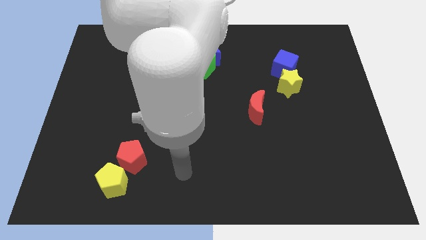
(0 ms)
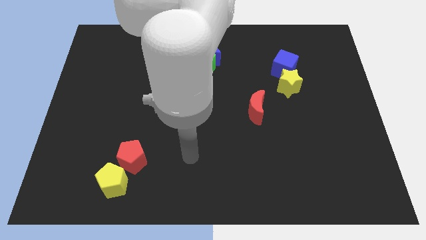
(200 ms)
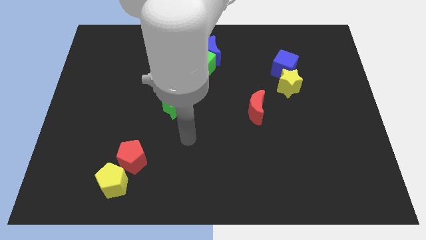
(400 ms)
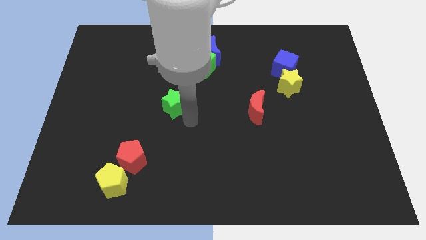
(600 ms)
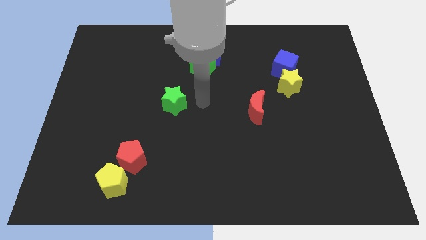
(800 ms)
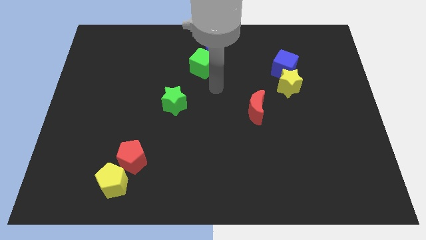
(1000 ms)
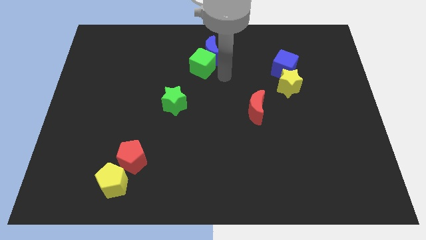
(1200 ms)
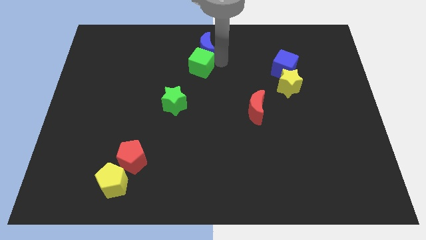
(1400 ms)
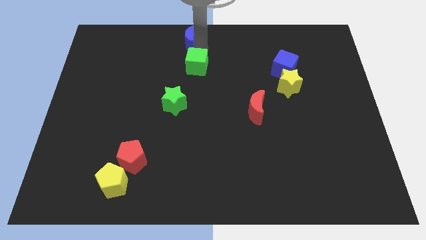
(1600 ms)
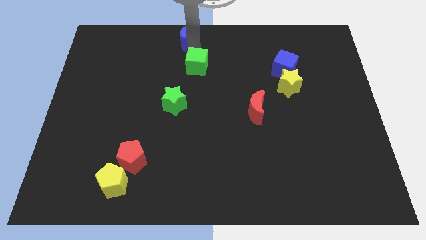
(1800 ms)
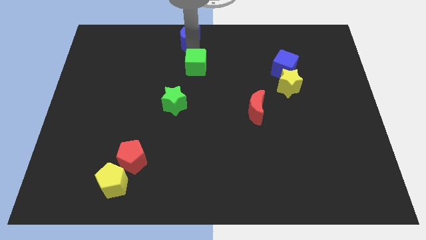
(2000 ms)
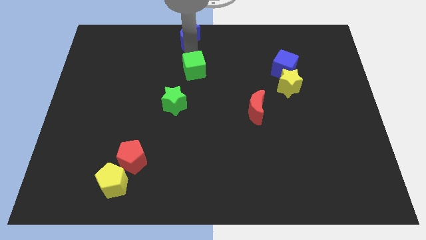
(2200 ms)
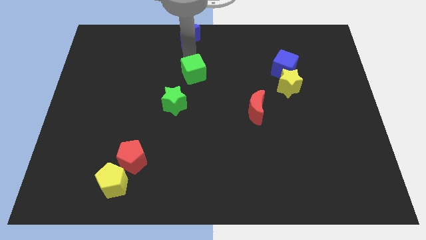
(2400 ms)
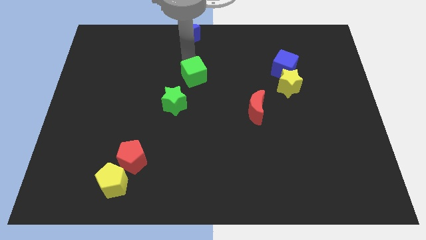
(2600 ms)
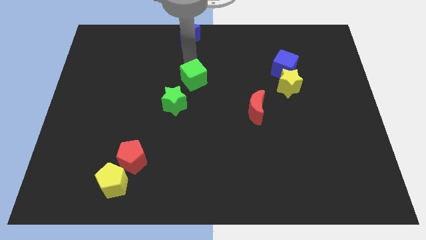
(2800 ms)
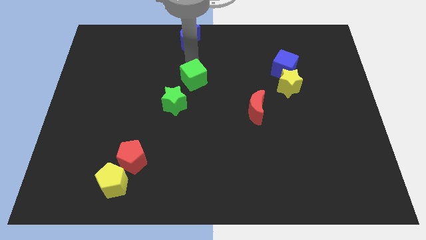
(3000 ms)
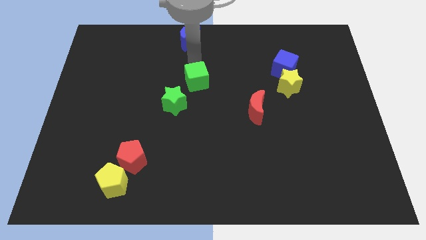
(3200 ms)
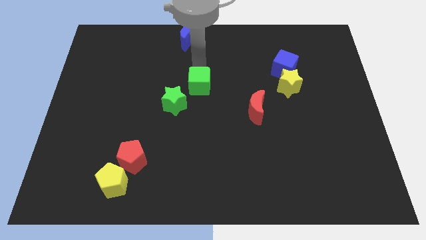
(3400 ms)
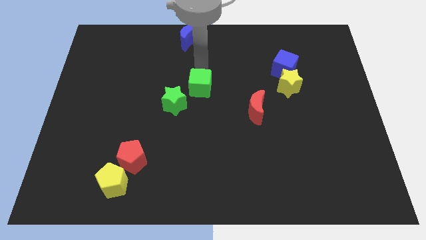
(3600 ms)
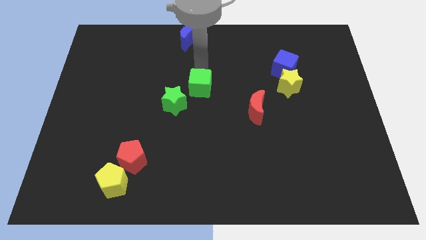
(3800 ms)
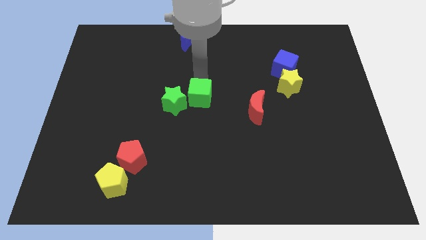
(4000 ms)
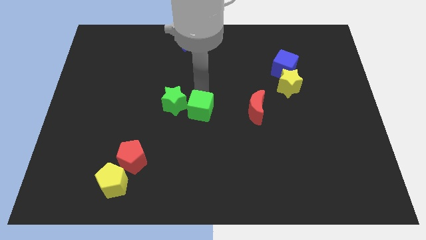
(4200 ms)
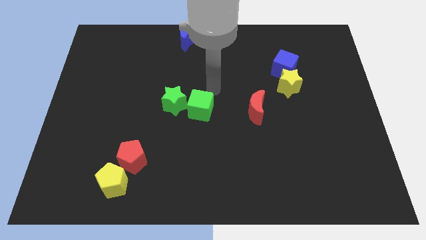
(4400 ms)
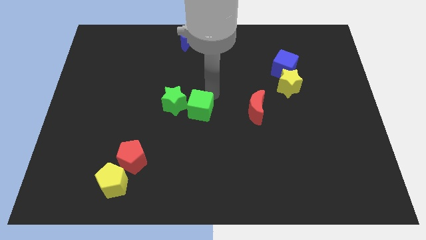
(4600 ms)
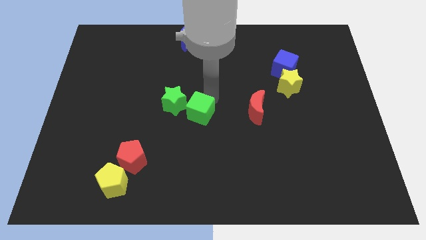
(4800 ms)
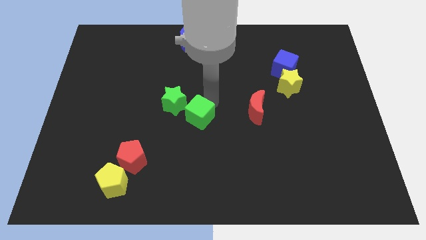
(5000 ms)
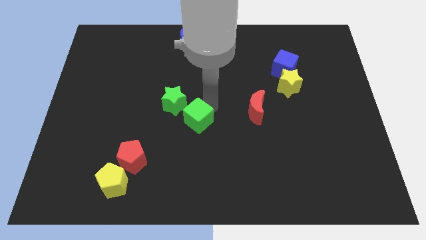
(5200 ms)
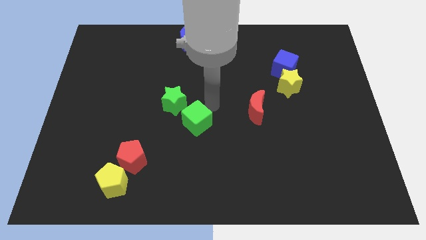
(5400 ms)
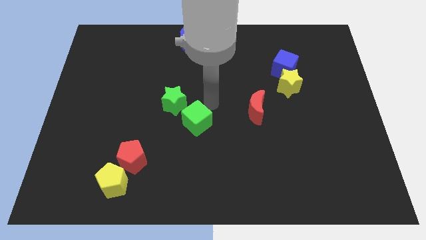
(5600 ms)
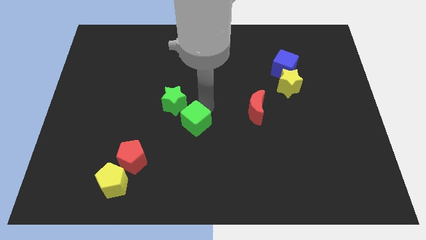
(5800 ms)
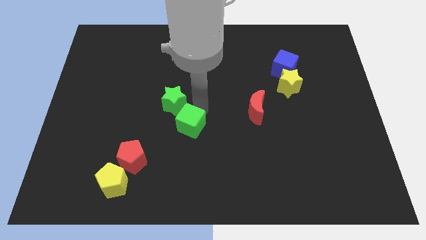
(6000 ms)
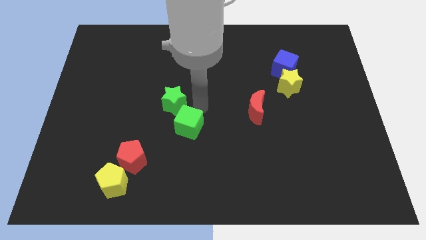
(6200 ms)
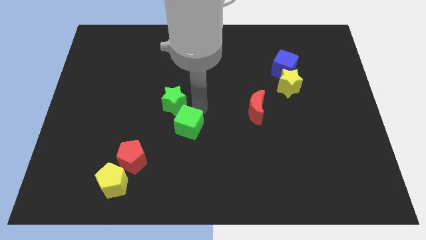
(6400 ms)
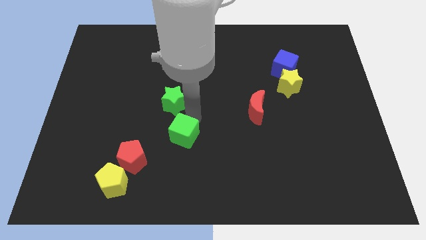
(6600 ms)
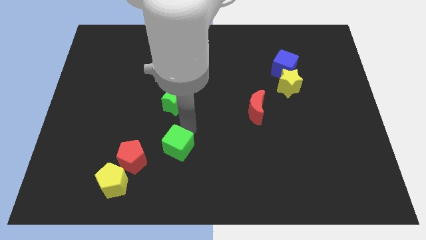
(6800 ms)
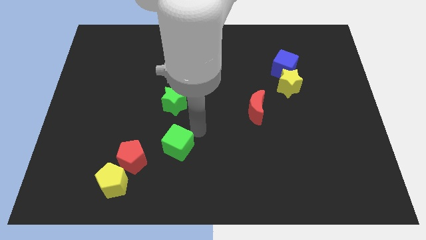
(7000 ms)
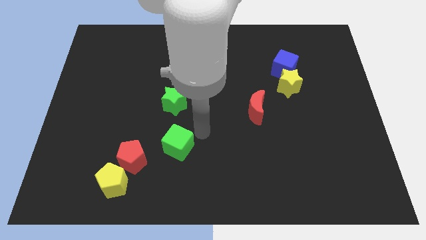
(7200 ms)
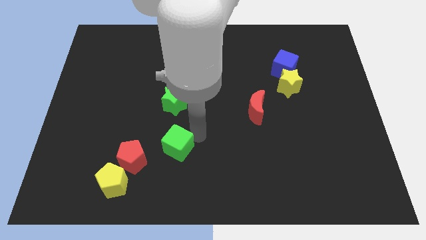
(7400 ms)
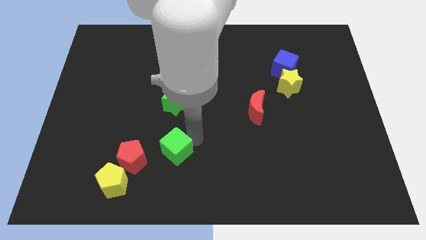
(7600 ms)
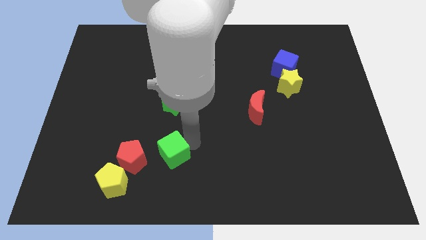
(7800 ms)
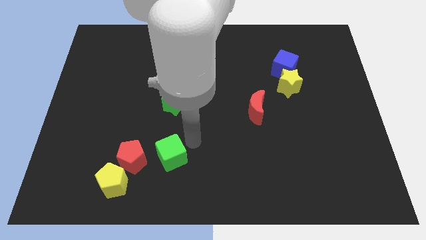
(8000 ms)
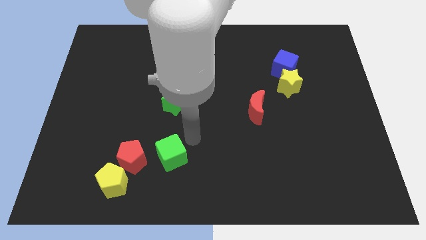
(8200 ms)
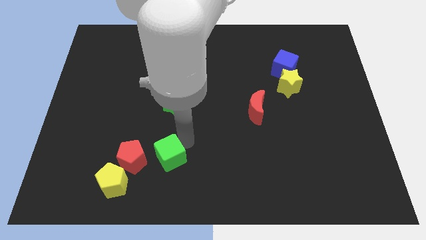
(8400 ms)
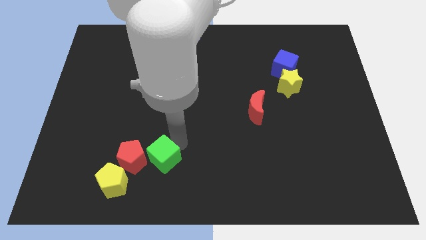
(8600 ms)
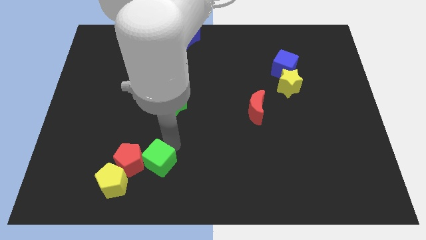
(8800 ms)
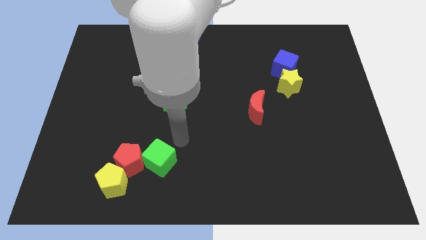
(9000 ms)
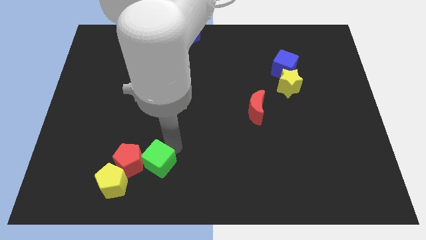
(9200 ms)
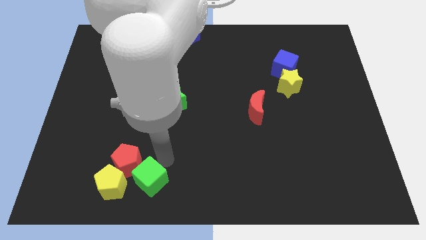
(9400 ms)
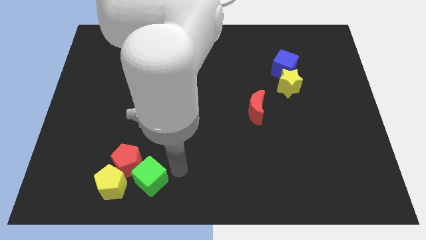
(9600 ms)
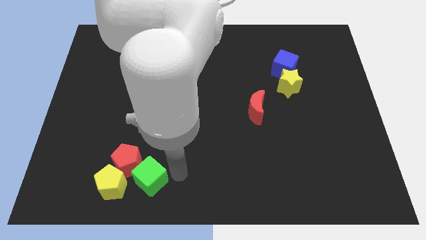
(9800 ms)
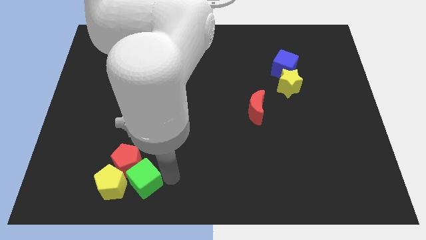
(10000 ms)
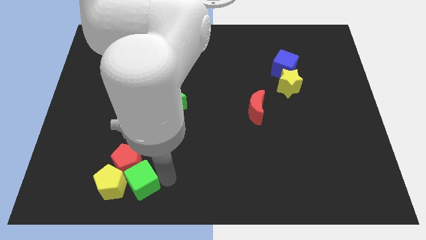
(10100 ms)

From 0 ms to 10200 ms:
slide the green cube towards the yellow pentagon

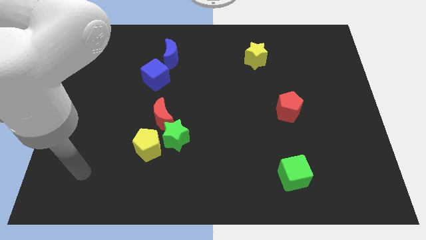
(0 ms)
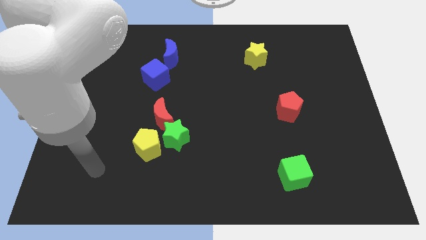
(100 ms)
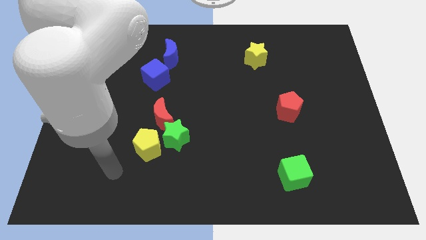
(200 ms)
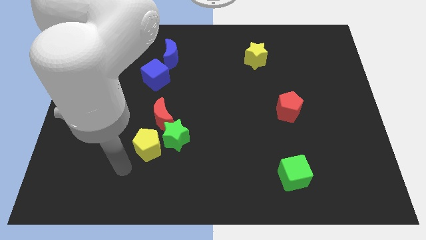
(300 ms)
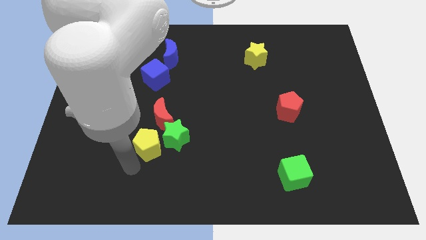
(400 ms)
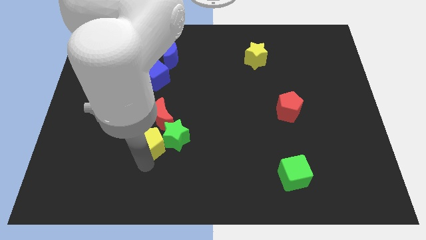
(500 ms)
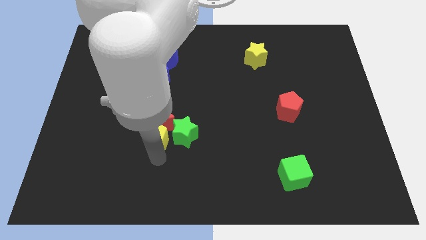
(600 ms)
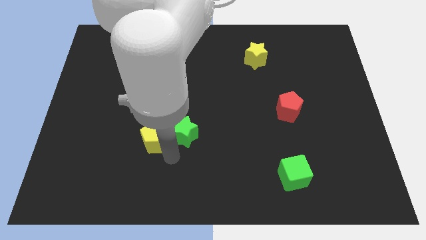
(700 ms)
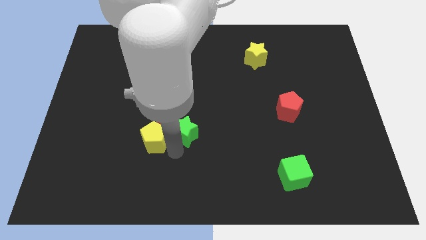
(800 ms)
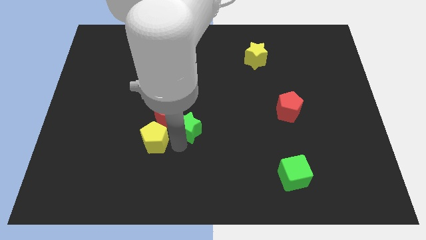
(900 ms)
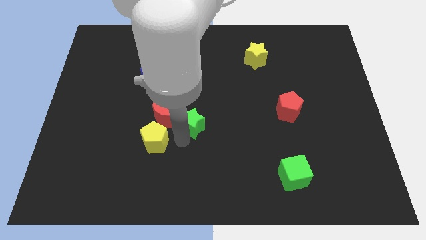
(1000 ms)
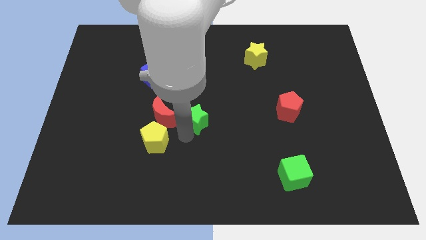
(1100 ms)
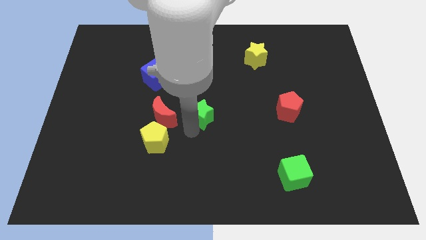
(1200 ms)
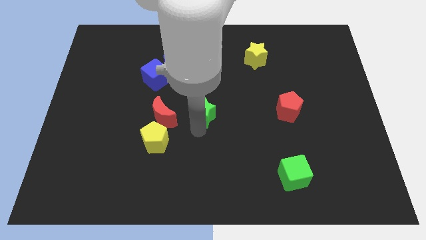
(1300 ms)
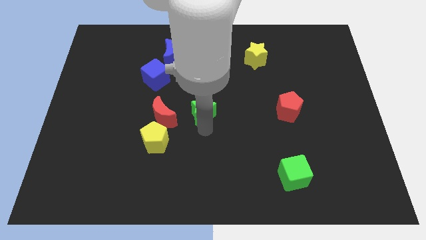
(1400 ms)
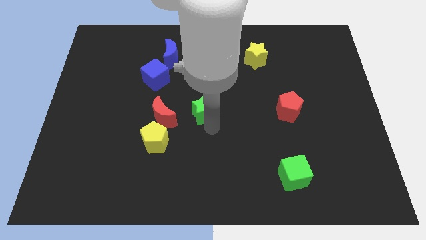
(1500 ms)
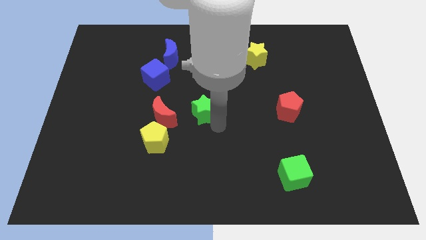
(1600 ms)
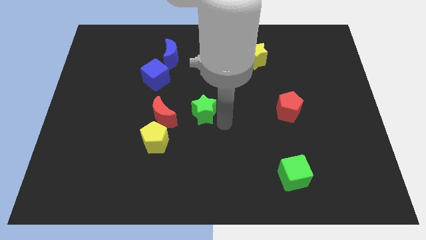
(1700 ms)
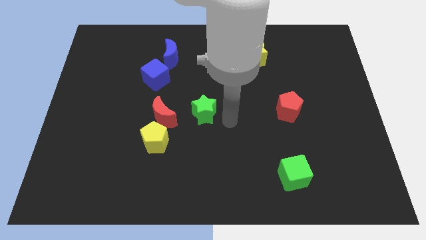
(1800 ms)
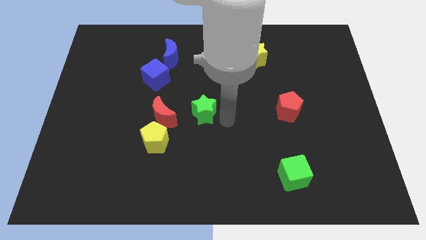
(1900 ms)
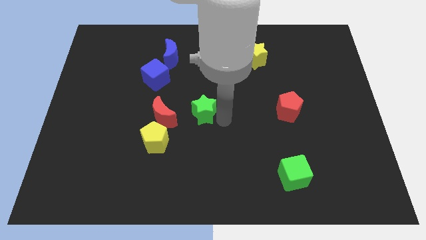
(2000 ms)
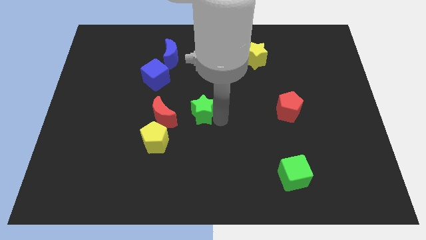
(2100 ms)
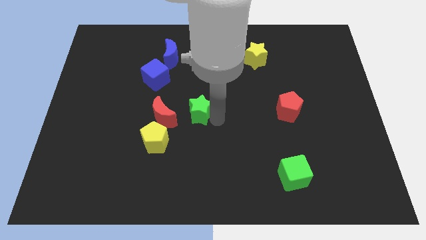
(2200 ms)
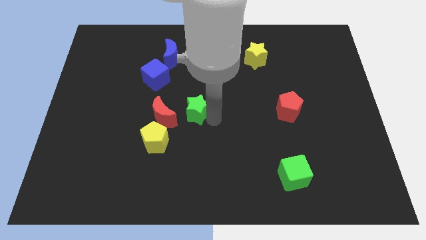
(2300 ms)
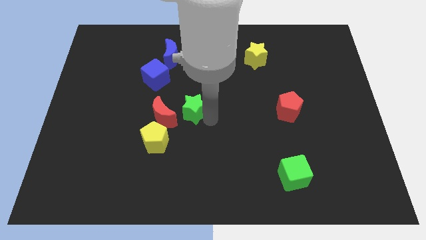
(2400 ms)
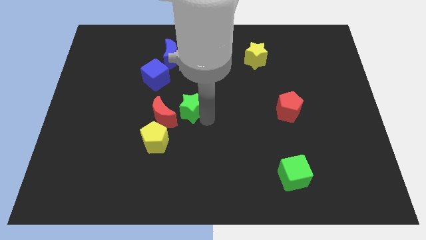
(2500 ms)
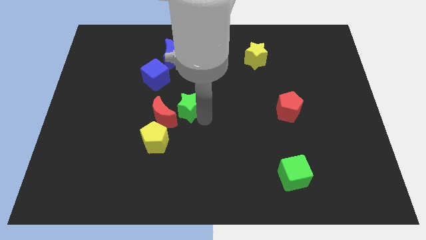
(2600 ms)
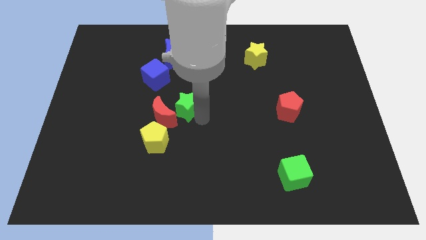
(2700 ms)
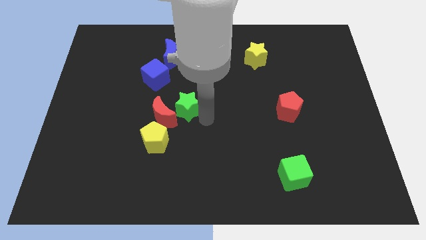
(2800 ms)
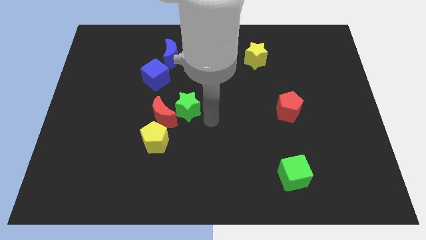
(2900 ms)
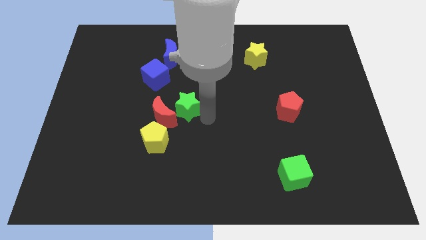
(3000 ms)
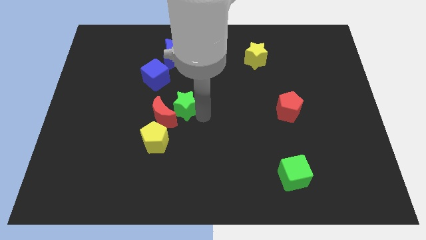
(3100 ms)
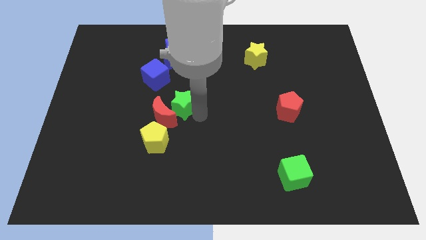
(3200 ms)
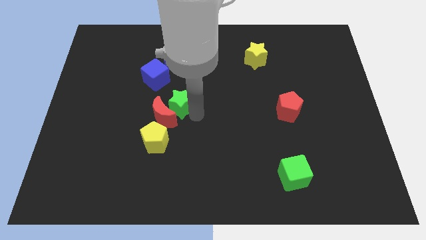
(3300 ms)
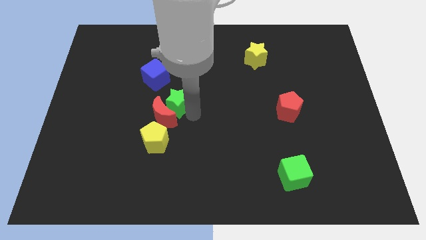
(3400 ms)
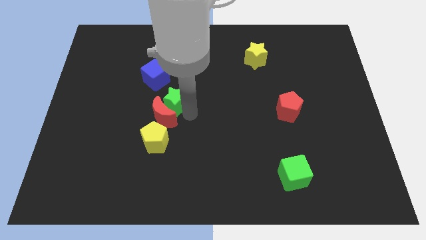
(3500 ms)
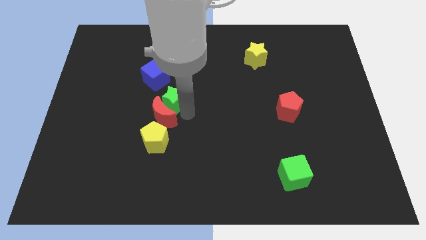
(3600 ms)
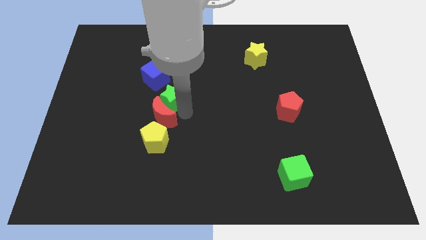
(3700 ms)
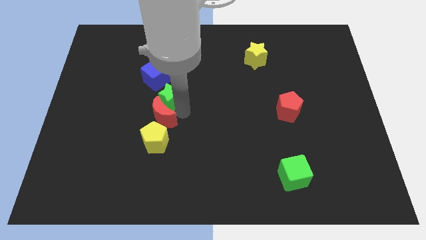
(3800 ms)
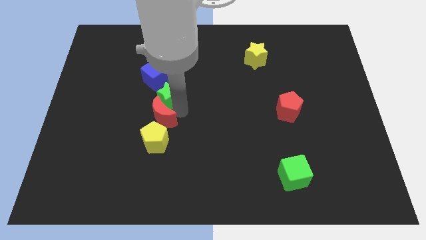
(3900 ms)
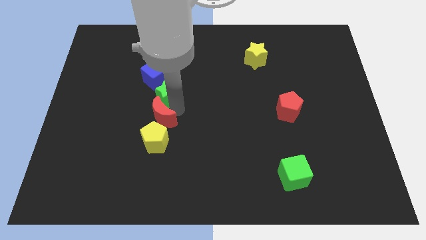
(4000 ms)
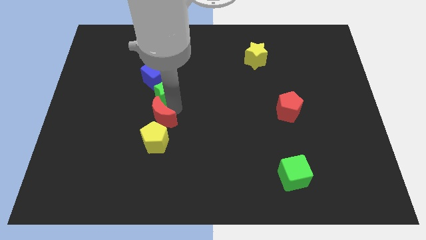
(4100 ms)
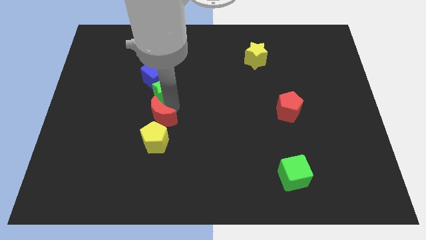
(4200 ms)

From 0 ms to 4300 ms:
move the green star next to the blue cube
